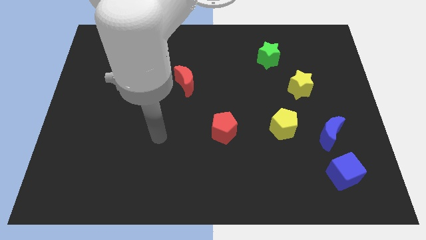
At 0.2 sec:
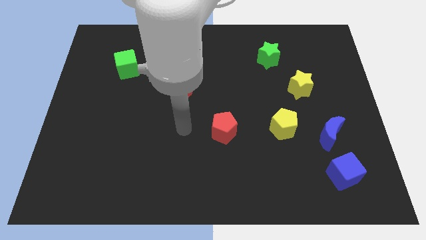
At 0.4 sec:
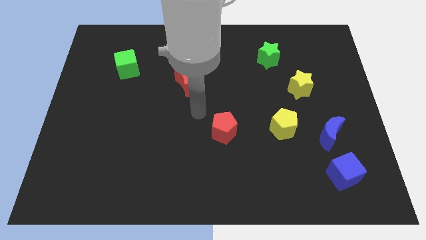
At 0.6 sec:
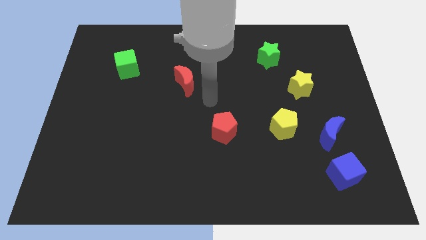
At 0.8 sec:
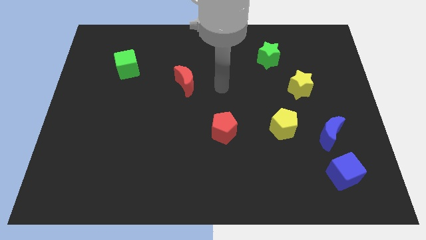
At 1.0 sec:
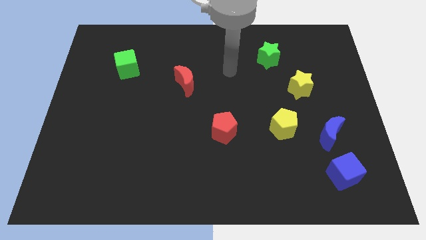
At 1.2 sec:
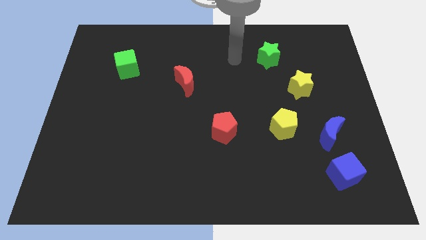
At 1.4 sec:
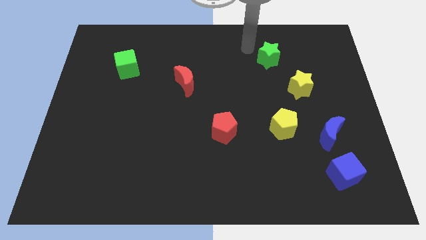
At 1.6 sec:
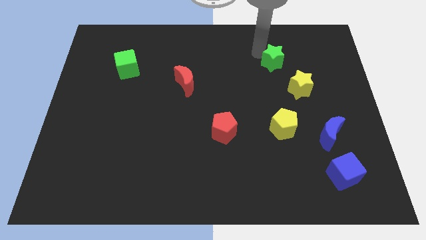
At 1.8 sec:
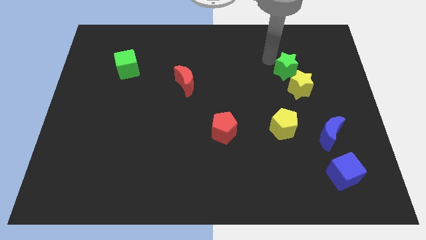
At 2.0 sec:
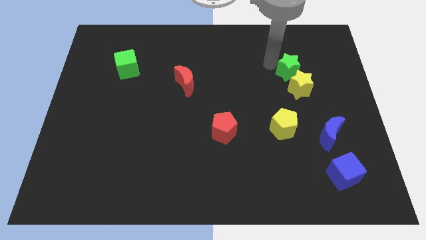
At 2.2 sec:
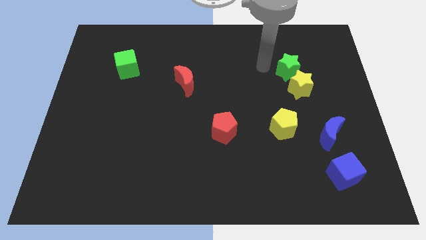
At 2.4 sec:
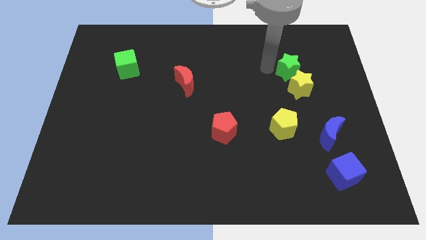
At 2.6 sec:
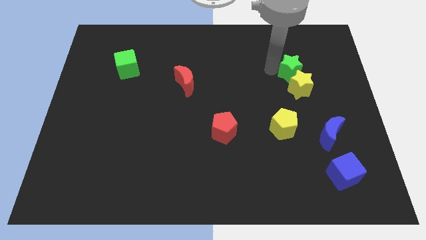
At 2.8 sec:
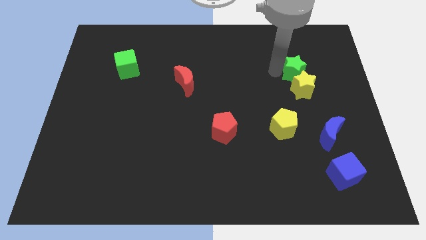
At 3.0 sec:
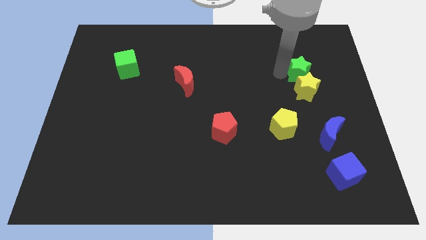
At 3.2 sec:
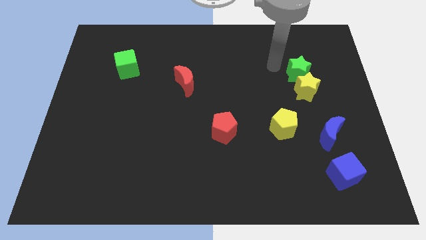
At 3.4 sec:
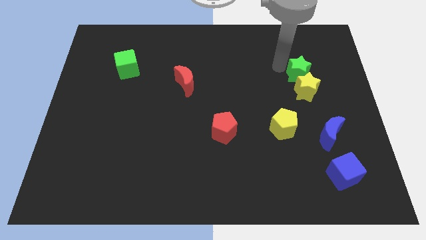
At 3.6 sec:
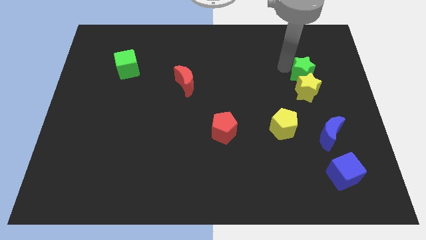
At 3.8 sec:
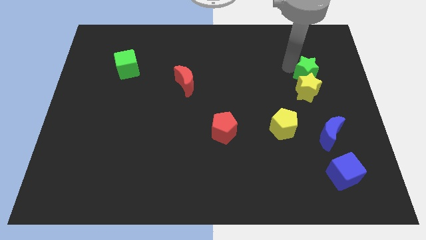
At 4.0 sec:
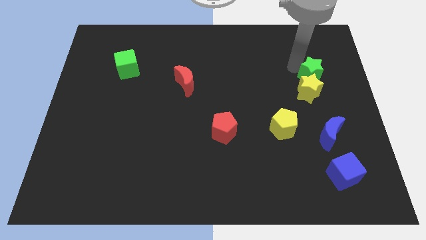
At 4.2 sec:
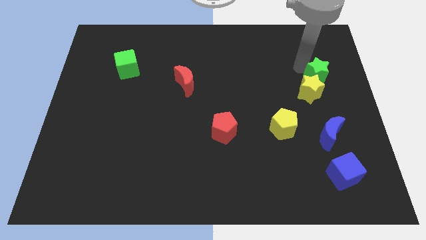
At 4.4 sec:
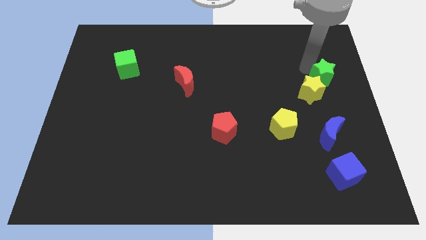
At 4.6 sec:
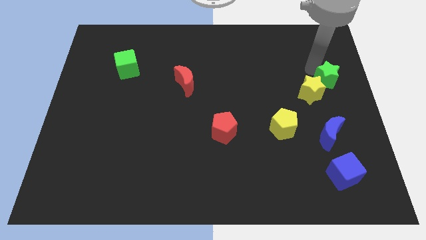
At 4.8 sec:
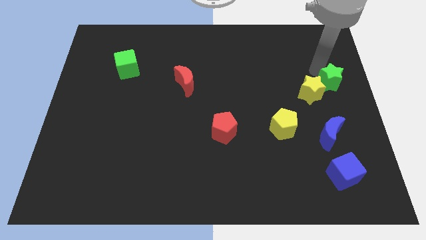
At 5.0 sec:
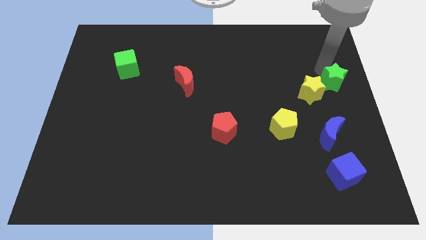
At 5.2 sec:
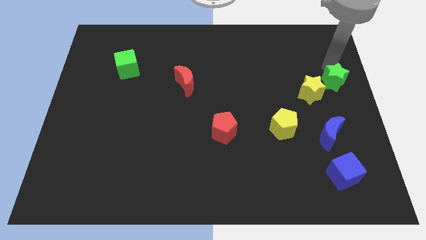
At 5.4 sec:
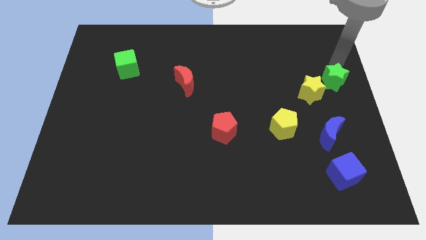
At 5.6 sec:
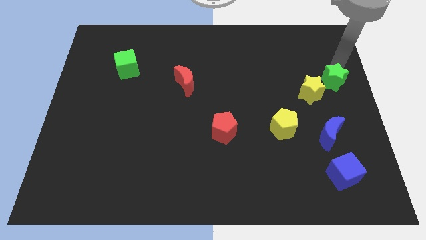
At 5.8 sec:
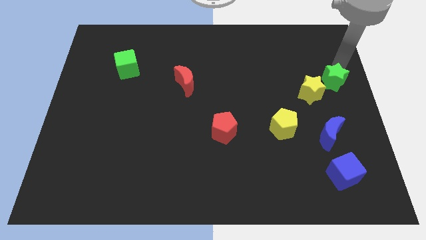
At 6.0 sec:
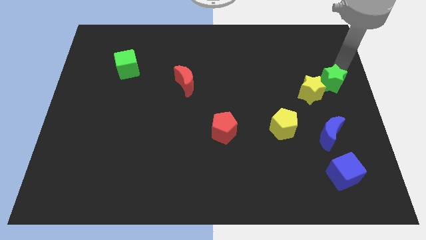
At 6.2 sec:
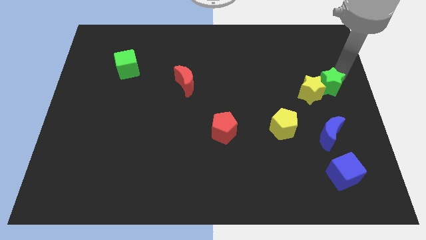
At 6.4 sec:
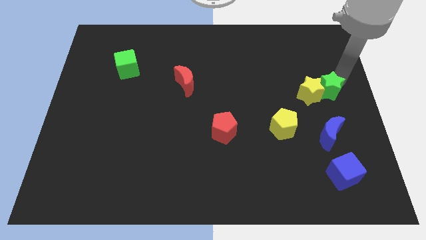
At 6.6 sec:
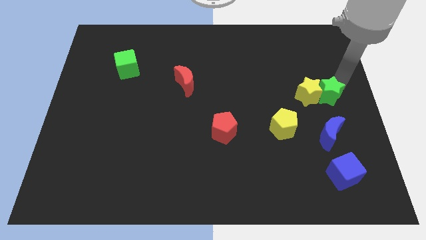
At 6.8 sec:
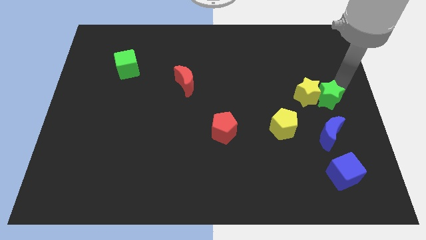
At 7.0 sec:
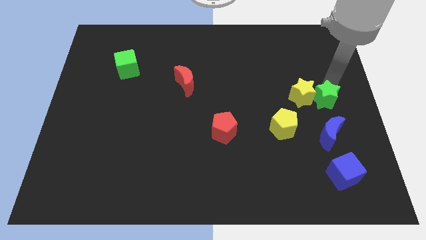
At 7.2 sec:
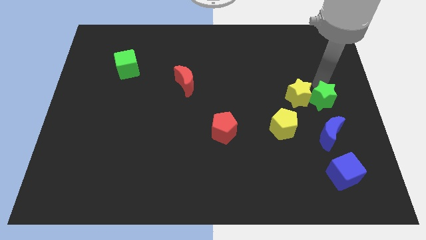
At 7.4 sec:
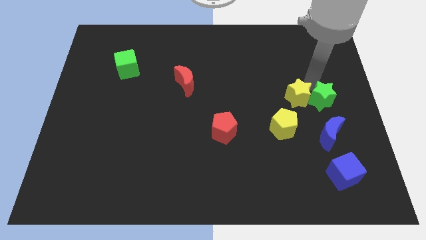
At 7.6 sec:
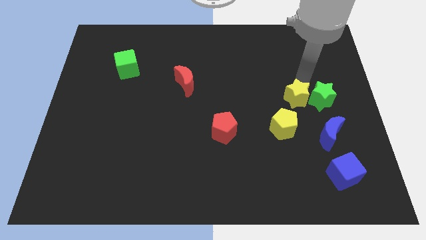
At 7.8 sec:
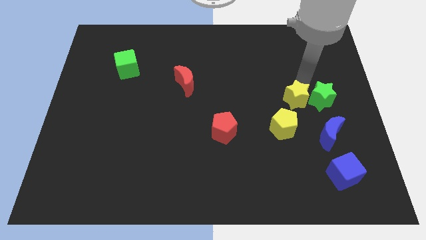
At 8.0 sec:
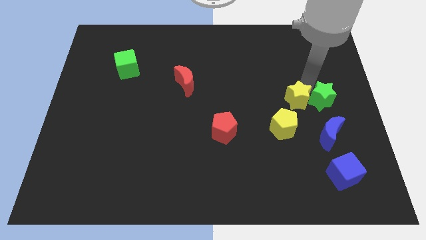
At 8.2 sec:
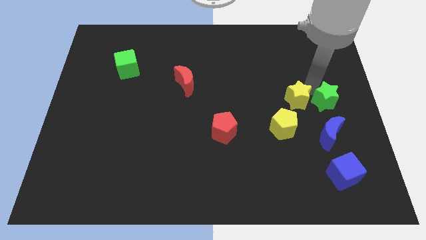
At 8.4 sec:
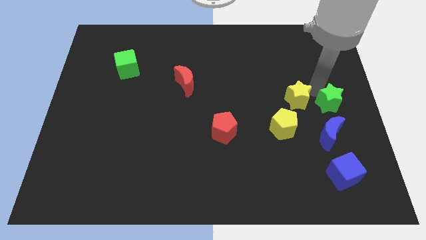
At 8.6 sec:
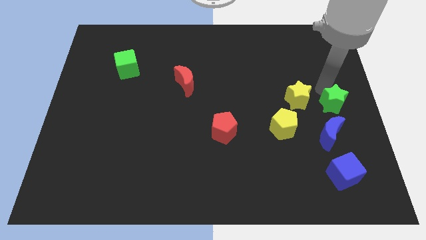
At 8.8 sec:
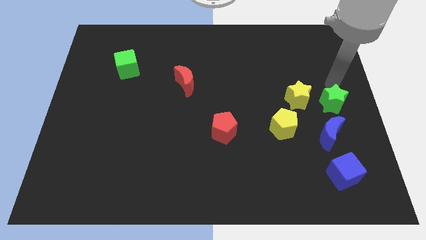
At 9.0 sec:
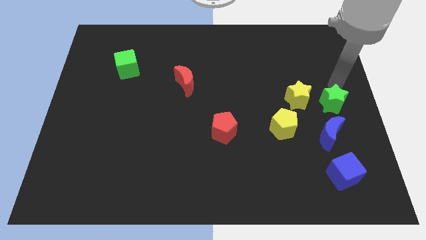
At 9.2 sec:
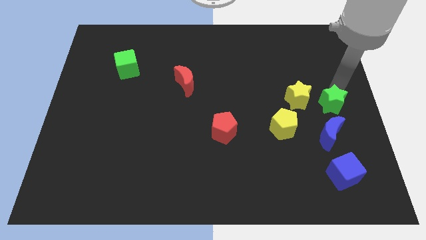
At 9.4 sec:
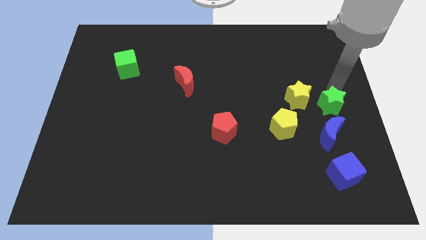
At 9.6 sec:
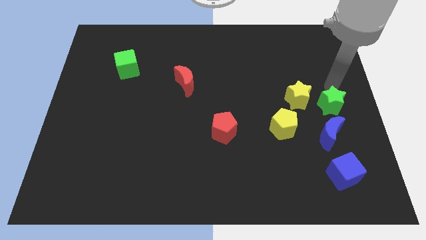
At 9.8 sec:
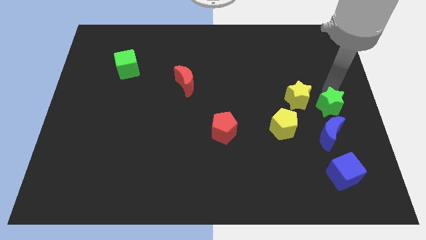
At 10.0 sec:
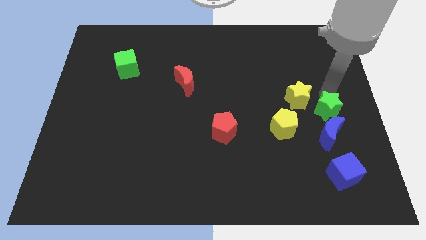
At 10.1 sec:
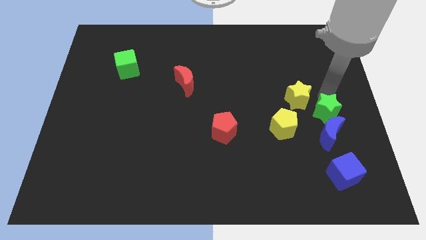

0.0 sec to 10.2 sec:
push the green star to the right of the yellow pentagon

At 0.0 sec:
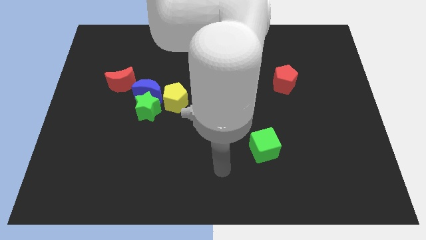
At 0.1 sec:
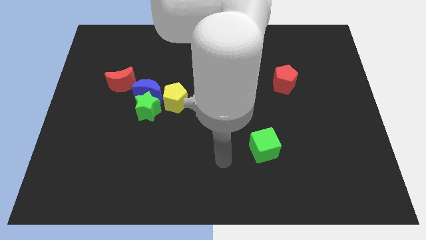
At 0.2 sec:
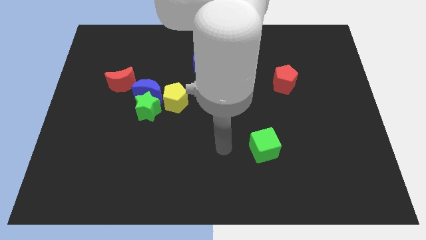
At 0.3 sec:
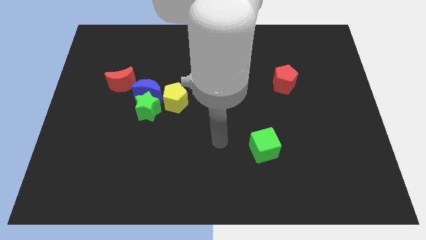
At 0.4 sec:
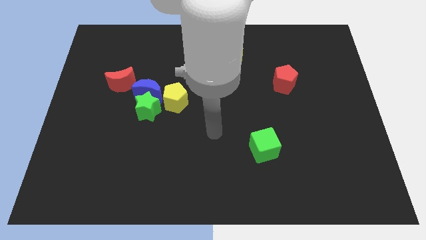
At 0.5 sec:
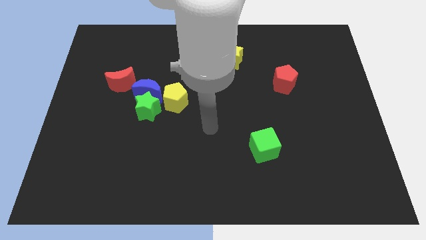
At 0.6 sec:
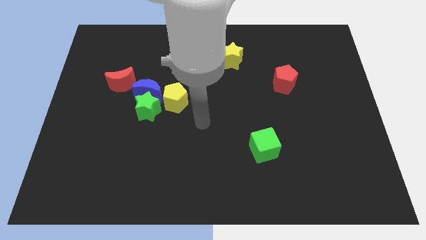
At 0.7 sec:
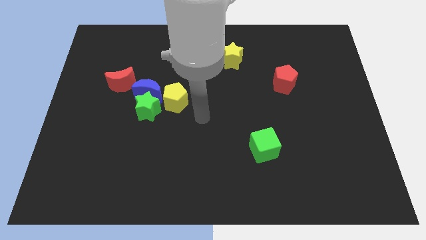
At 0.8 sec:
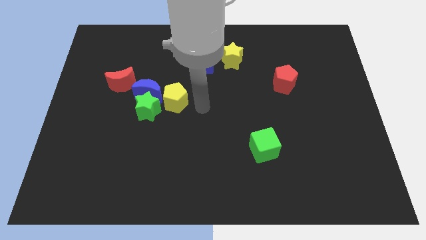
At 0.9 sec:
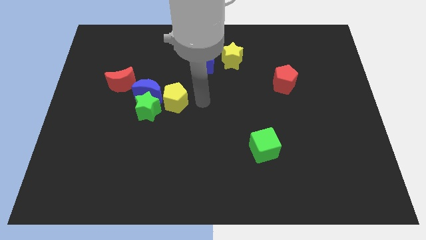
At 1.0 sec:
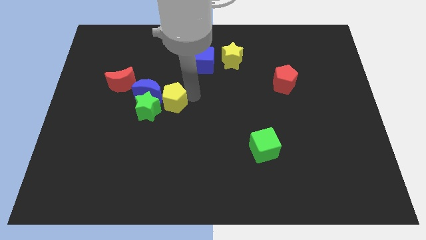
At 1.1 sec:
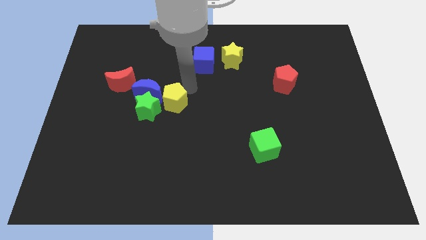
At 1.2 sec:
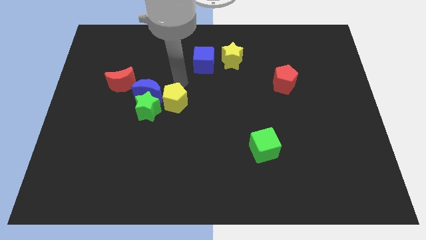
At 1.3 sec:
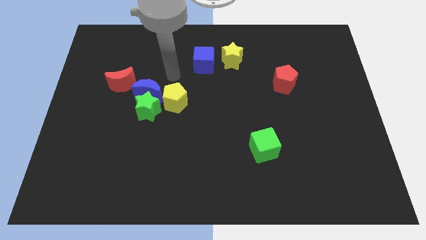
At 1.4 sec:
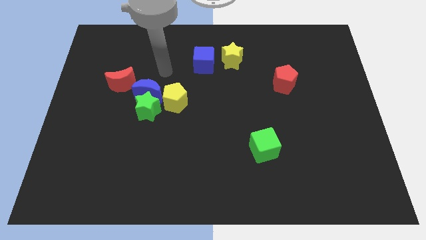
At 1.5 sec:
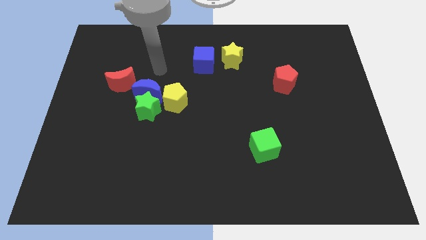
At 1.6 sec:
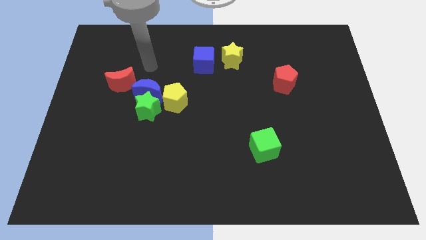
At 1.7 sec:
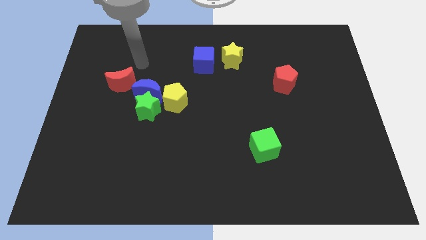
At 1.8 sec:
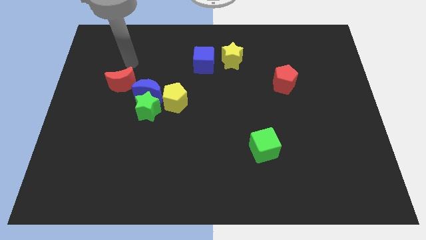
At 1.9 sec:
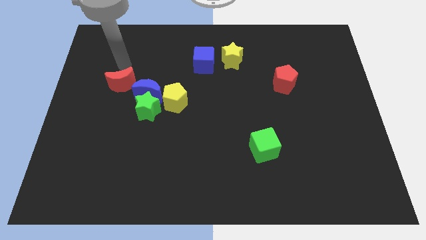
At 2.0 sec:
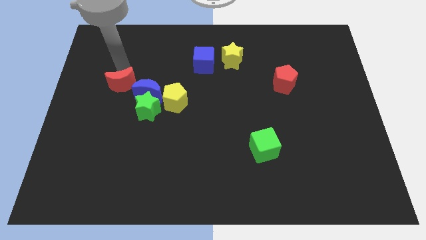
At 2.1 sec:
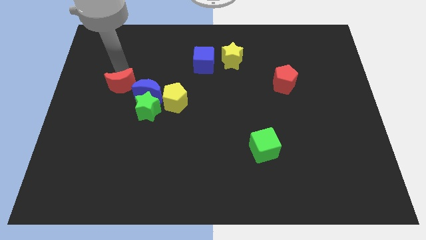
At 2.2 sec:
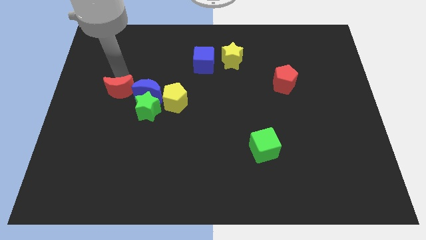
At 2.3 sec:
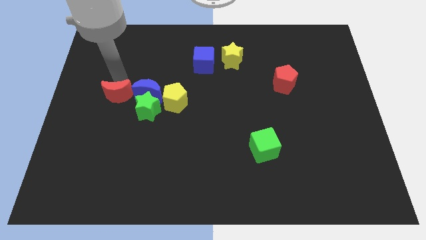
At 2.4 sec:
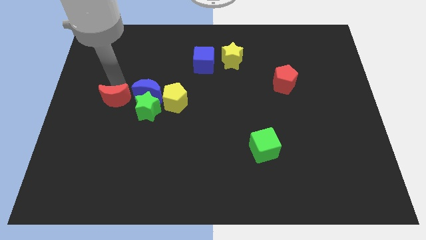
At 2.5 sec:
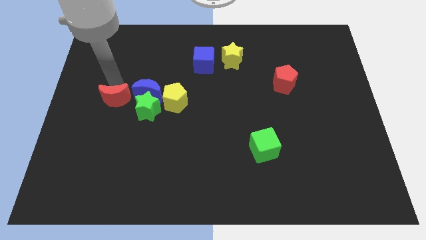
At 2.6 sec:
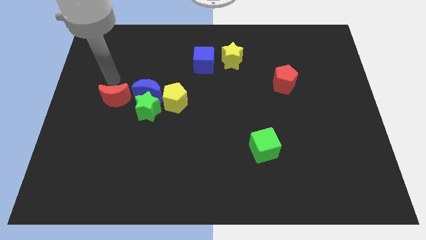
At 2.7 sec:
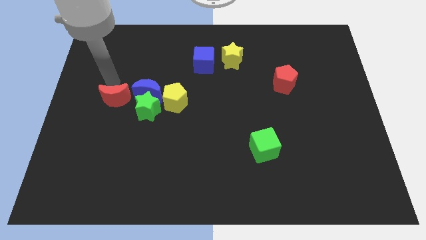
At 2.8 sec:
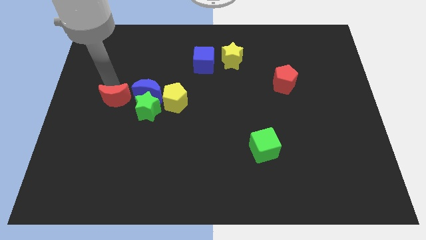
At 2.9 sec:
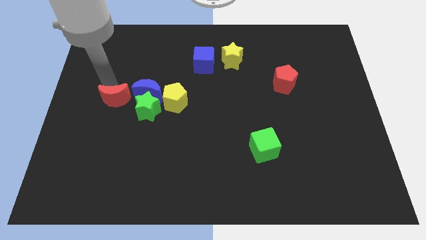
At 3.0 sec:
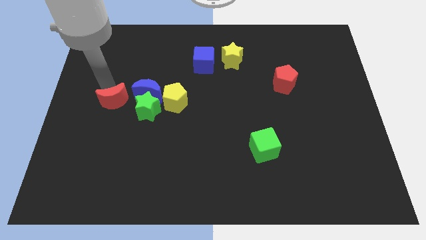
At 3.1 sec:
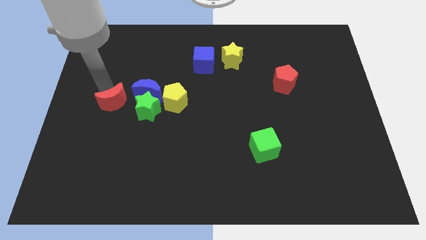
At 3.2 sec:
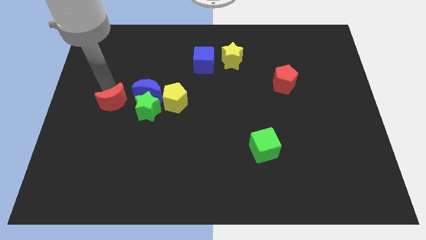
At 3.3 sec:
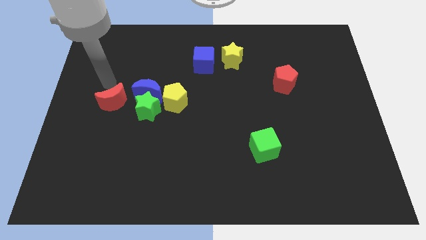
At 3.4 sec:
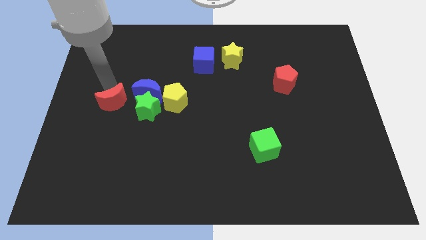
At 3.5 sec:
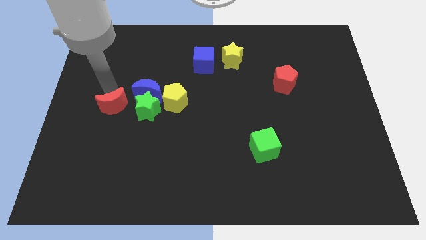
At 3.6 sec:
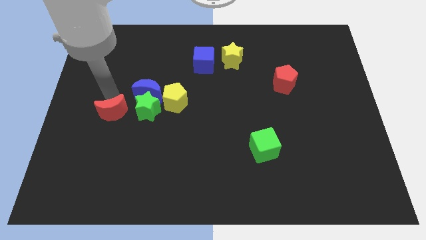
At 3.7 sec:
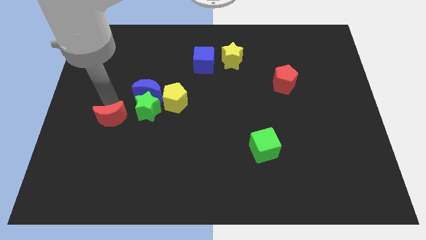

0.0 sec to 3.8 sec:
push the red moon to the bottom left of the green star
